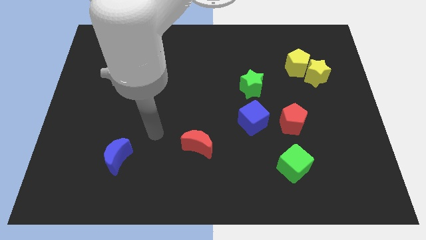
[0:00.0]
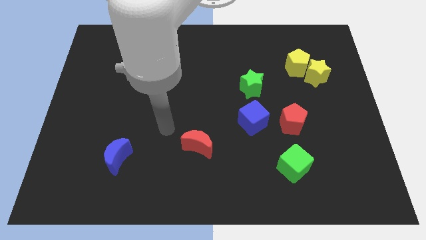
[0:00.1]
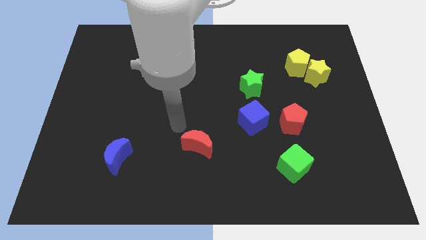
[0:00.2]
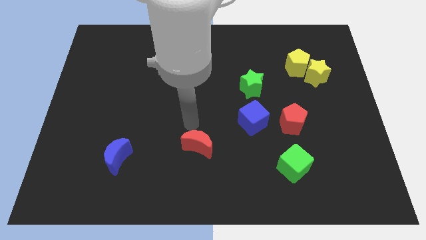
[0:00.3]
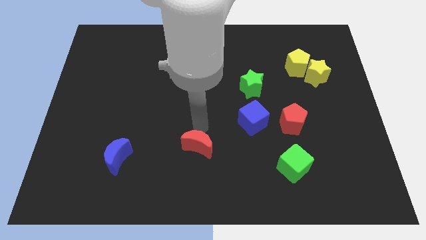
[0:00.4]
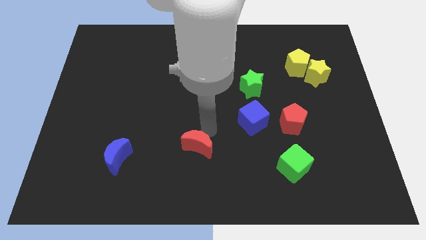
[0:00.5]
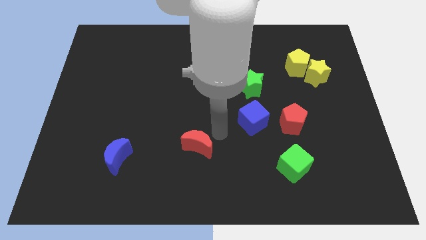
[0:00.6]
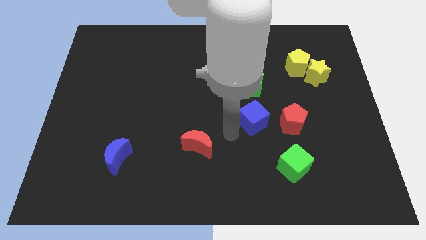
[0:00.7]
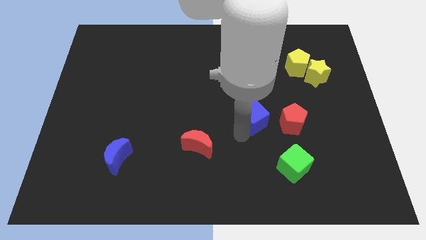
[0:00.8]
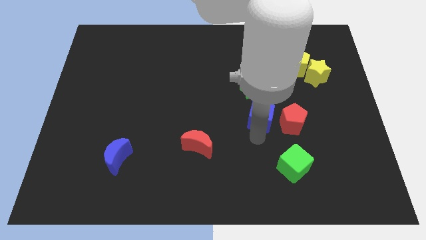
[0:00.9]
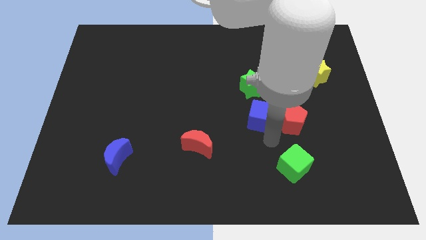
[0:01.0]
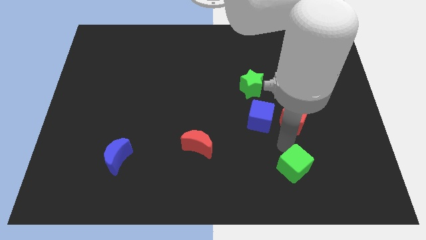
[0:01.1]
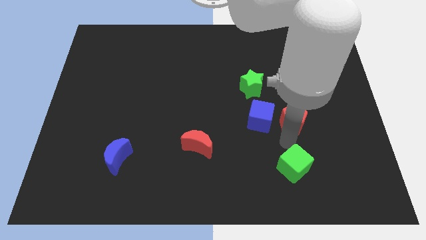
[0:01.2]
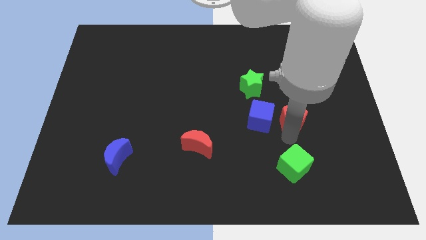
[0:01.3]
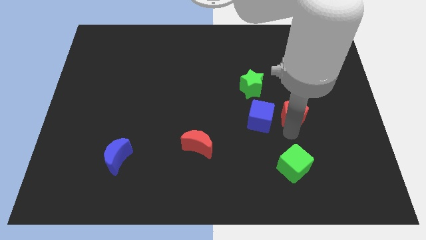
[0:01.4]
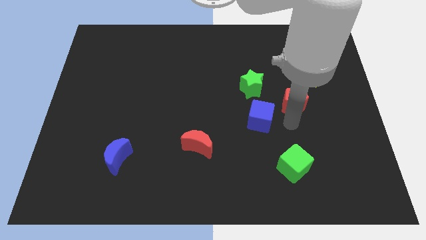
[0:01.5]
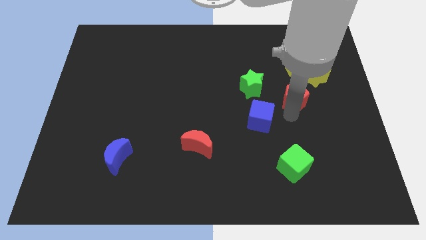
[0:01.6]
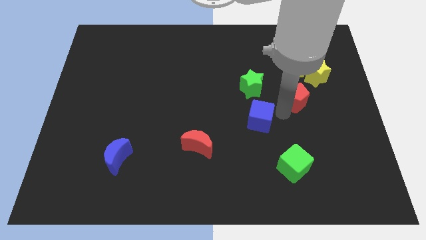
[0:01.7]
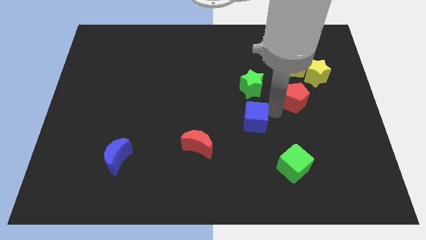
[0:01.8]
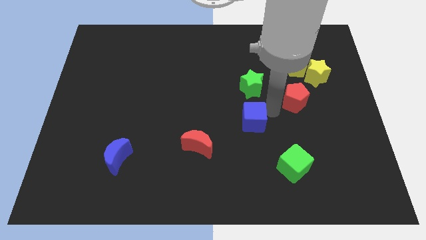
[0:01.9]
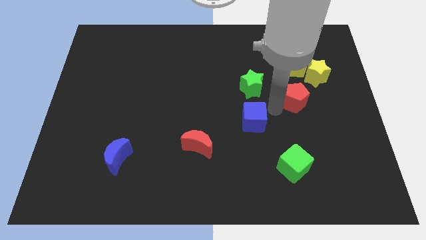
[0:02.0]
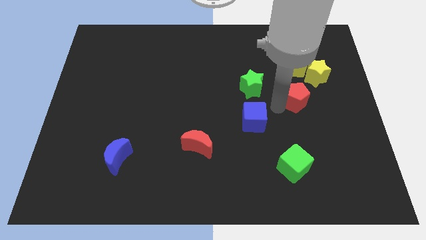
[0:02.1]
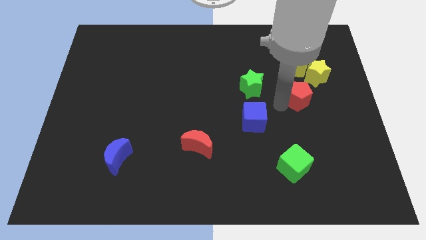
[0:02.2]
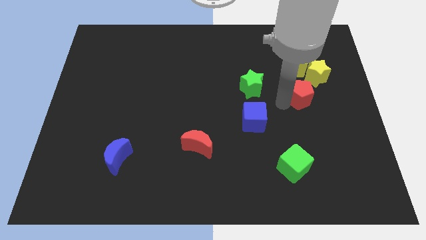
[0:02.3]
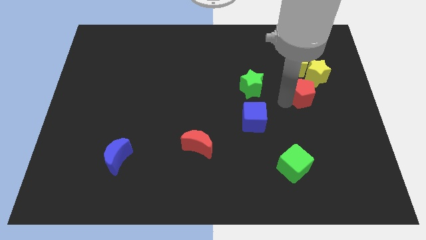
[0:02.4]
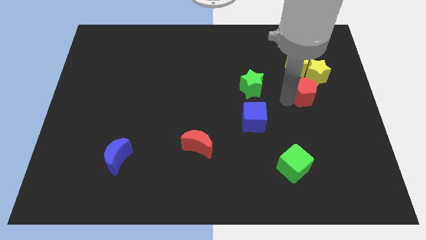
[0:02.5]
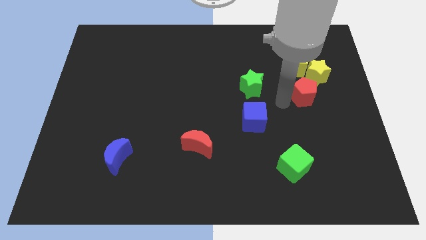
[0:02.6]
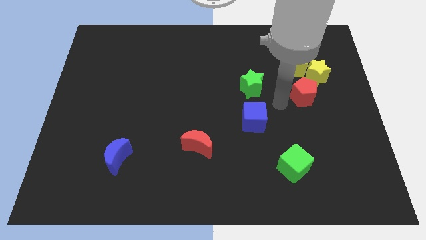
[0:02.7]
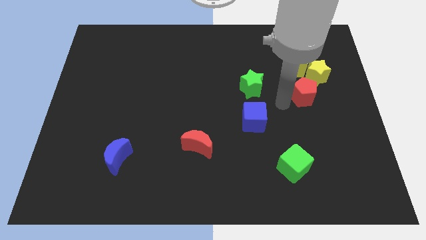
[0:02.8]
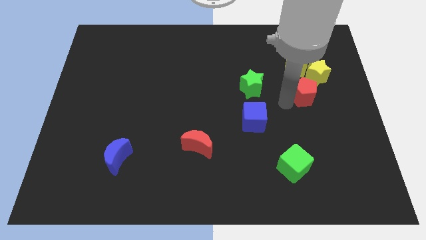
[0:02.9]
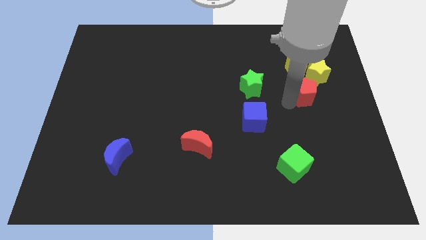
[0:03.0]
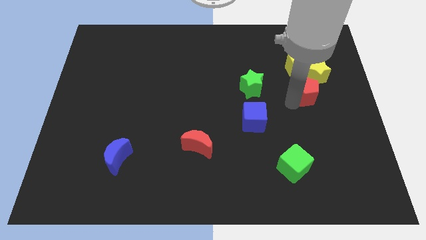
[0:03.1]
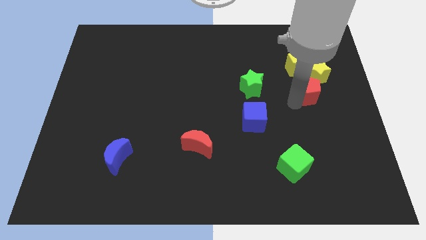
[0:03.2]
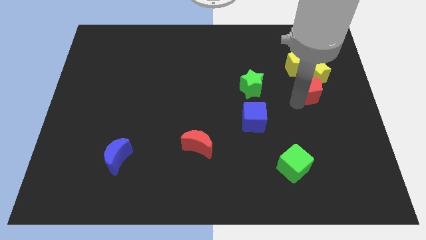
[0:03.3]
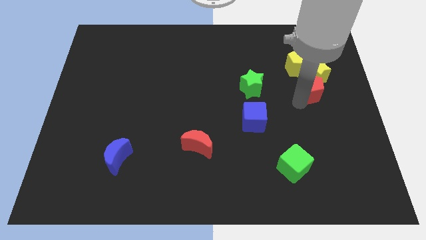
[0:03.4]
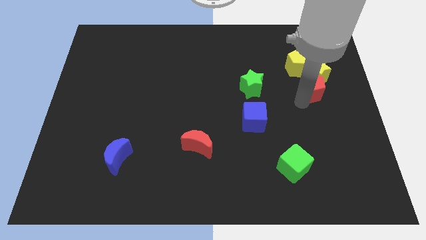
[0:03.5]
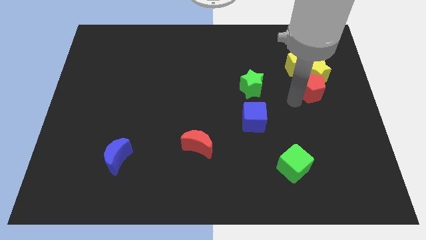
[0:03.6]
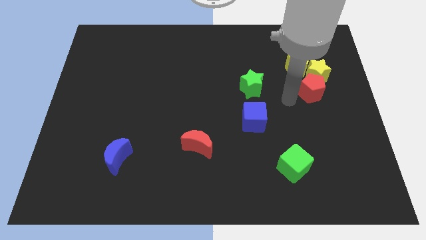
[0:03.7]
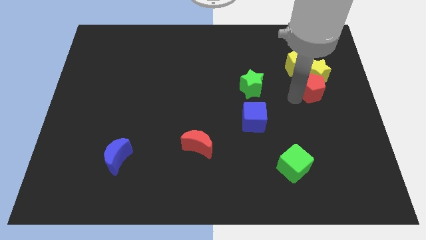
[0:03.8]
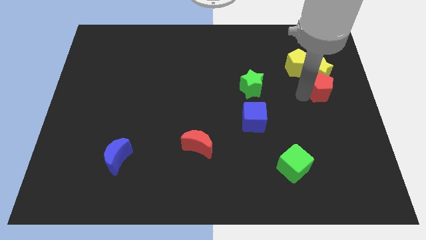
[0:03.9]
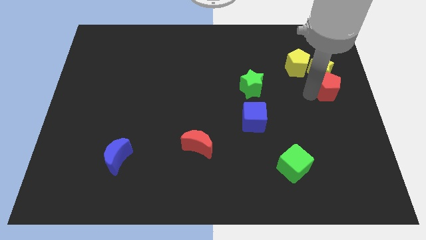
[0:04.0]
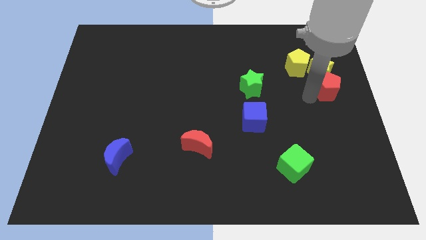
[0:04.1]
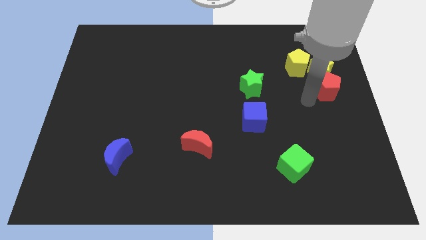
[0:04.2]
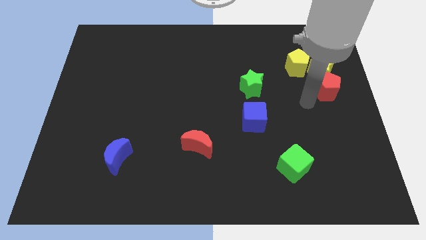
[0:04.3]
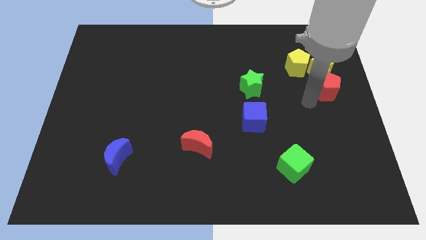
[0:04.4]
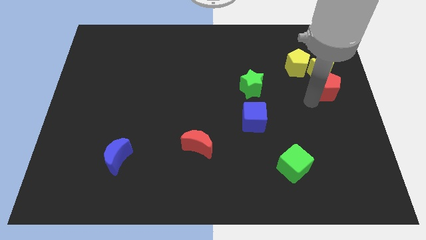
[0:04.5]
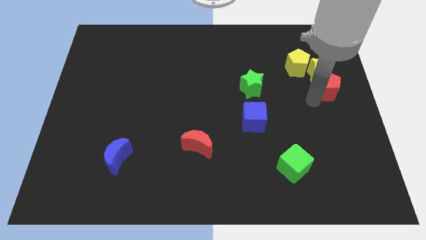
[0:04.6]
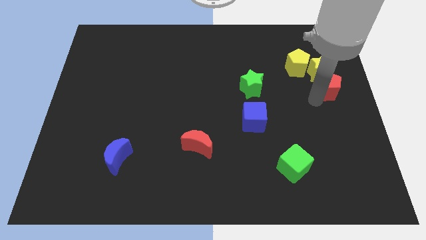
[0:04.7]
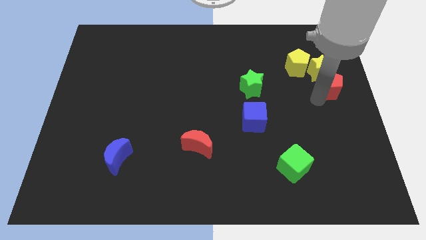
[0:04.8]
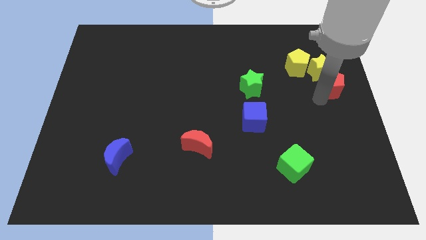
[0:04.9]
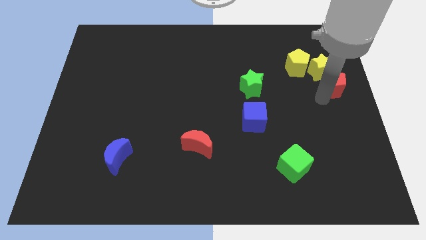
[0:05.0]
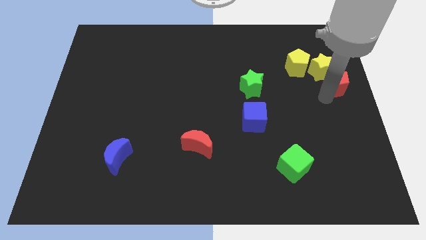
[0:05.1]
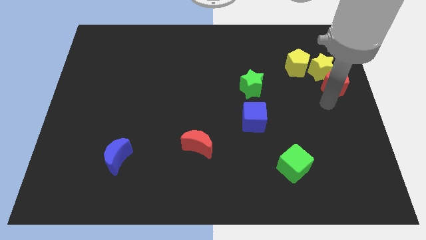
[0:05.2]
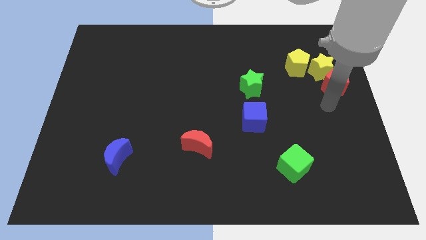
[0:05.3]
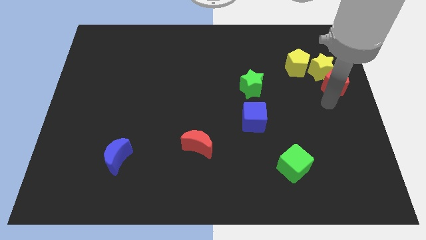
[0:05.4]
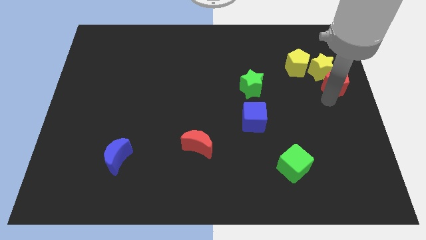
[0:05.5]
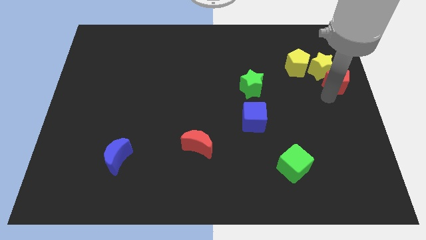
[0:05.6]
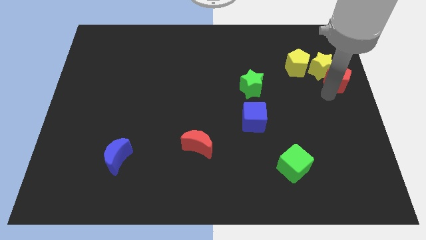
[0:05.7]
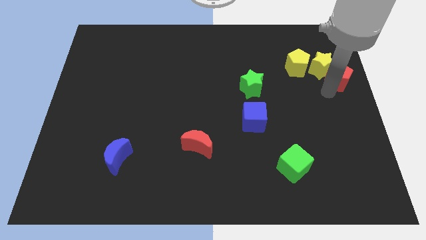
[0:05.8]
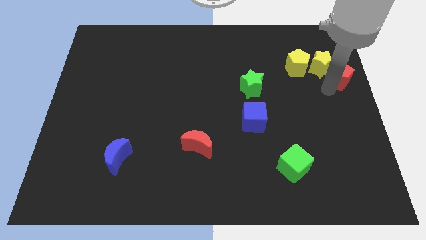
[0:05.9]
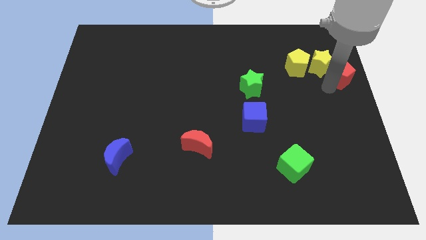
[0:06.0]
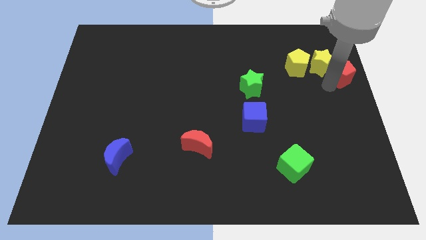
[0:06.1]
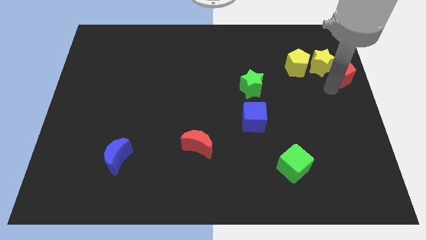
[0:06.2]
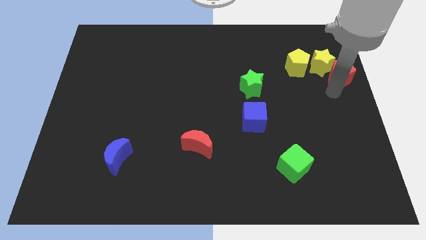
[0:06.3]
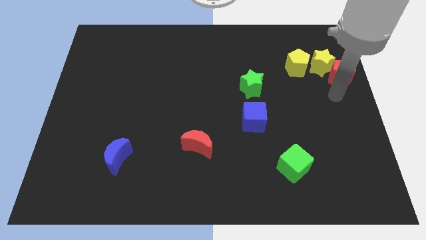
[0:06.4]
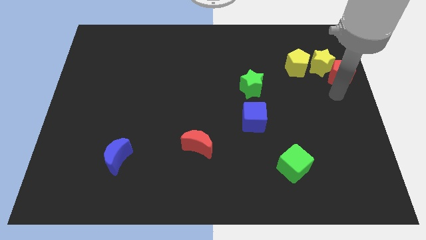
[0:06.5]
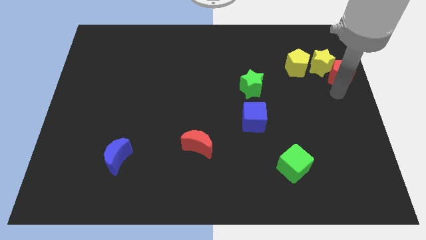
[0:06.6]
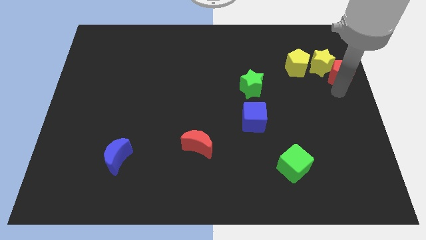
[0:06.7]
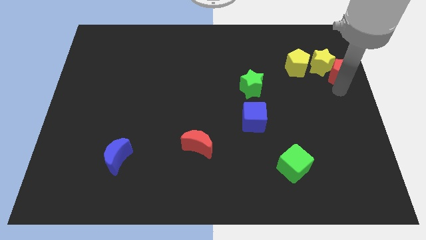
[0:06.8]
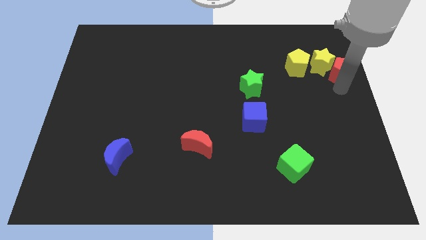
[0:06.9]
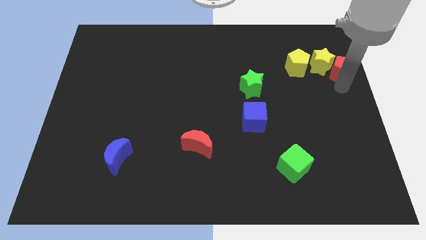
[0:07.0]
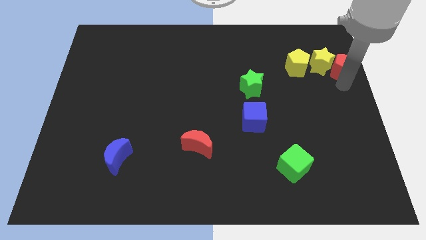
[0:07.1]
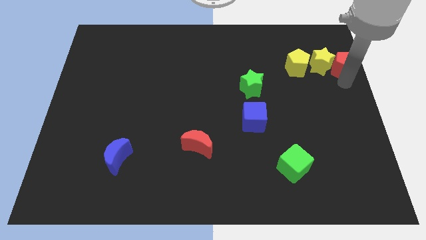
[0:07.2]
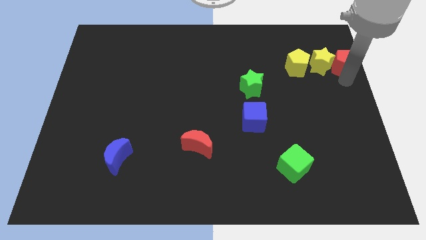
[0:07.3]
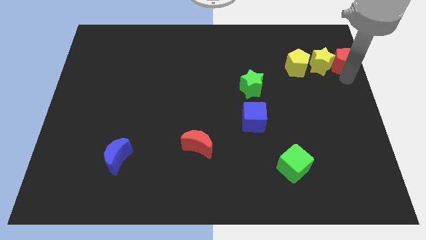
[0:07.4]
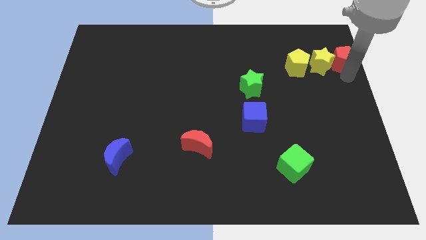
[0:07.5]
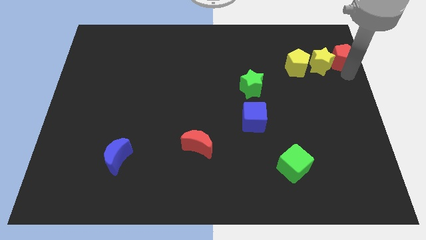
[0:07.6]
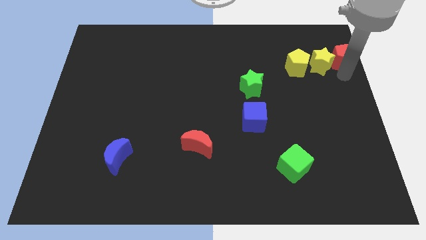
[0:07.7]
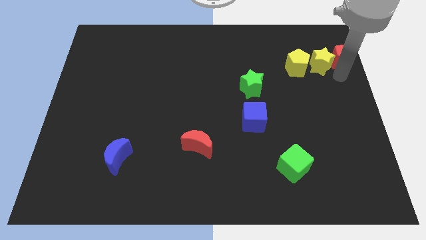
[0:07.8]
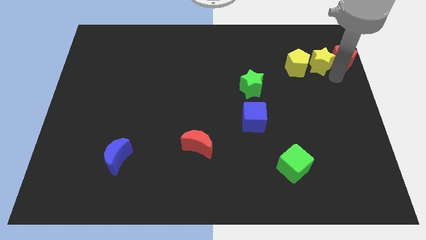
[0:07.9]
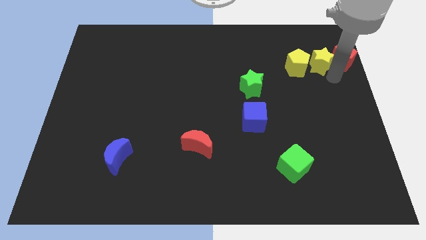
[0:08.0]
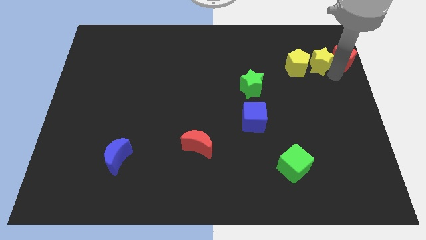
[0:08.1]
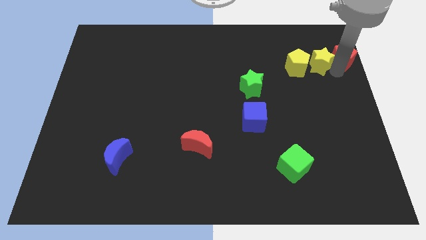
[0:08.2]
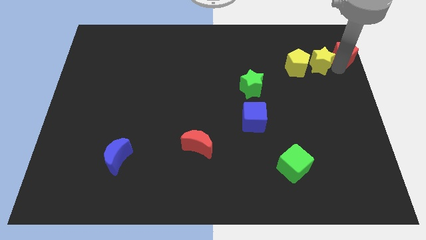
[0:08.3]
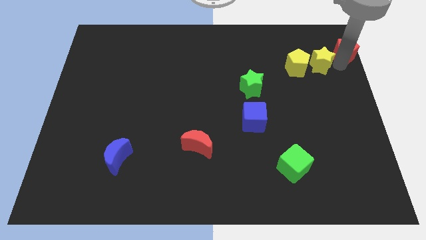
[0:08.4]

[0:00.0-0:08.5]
push the red pentagon to the top right corner
